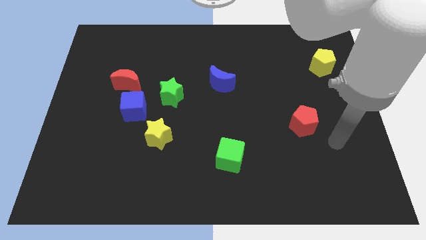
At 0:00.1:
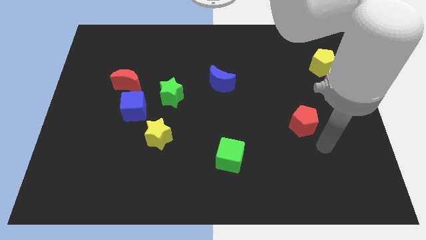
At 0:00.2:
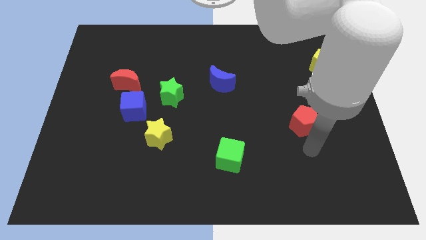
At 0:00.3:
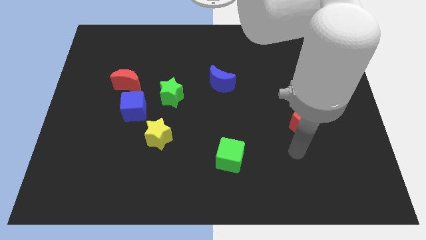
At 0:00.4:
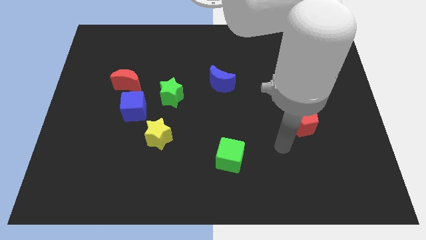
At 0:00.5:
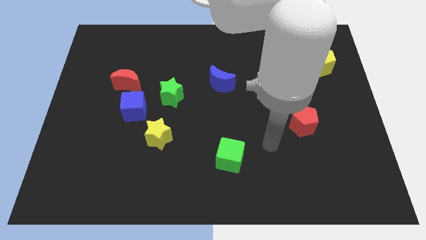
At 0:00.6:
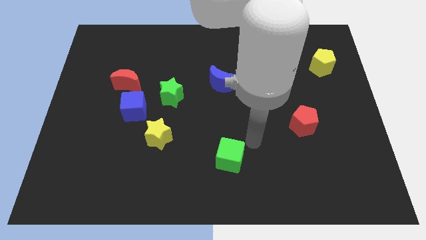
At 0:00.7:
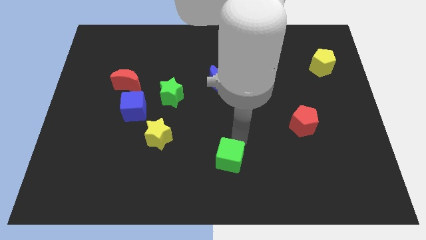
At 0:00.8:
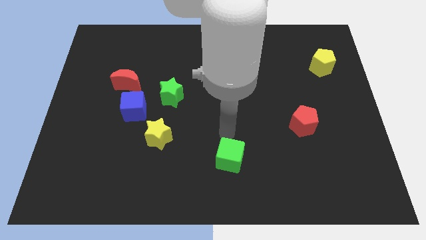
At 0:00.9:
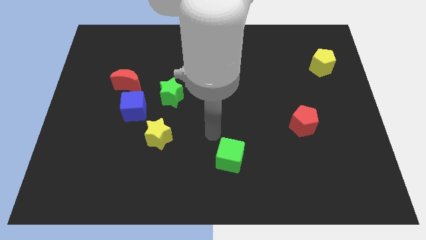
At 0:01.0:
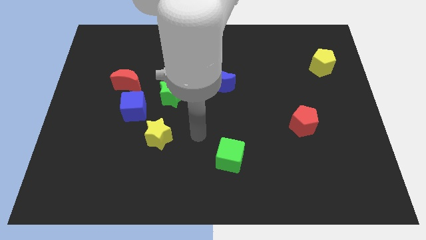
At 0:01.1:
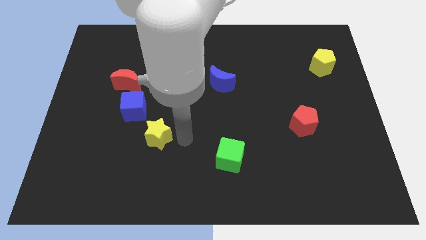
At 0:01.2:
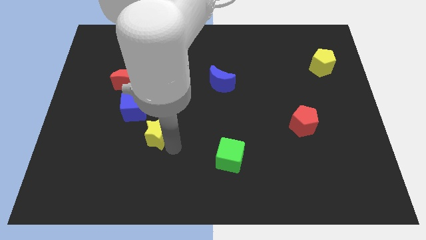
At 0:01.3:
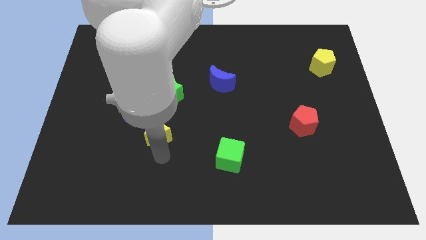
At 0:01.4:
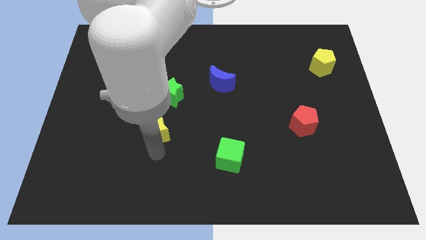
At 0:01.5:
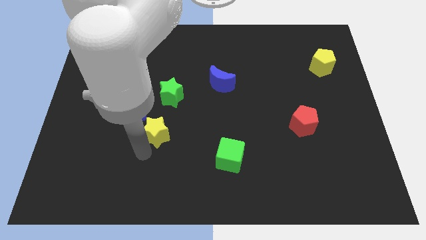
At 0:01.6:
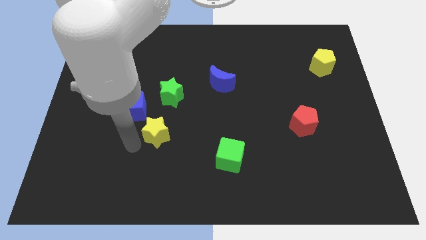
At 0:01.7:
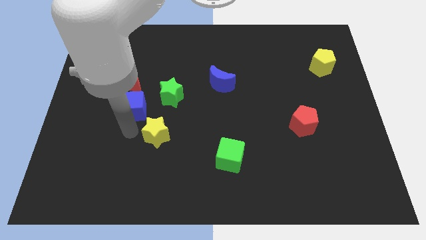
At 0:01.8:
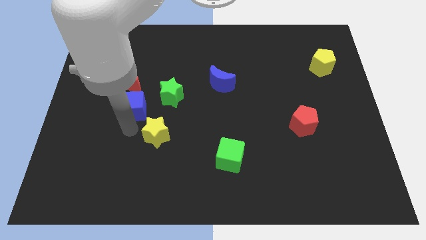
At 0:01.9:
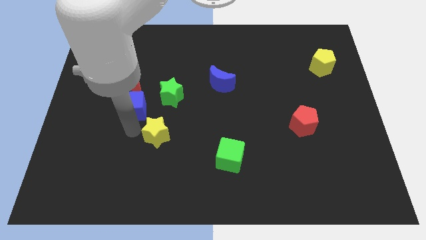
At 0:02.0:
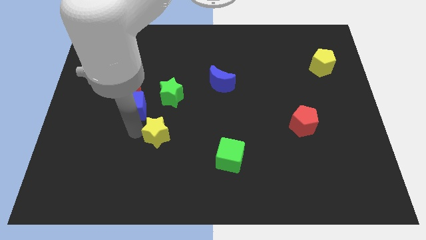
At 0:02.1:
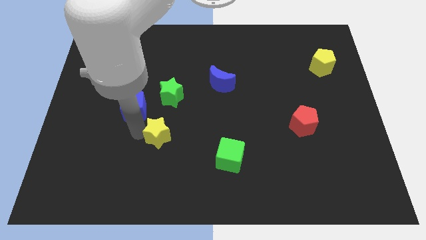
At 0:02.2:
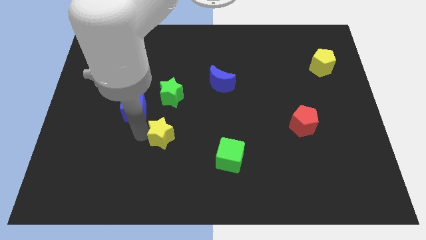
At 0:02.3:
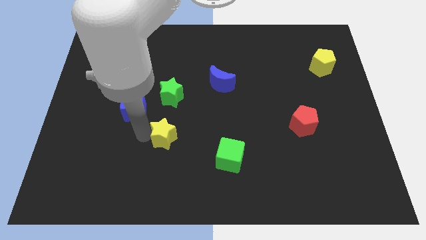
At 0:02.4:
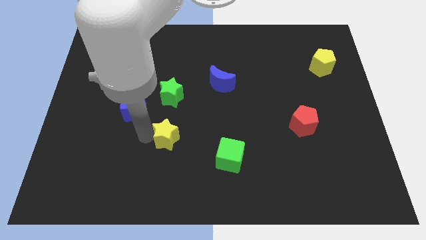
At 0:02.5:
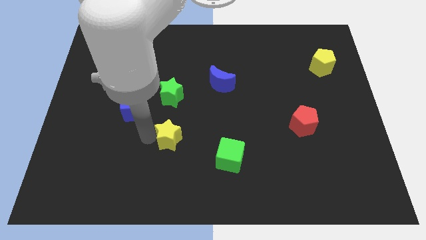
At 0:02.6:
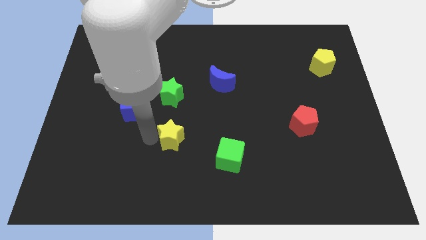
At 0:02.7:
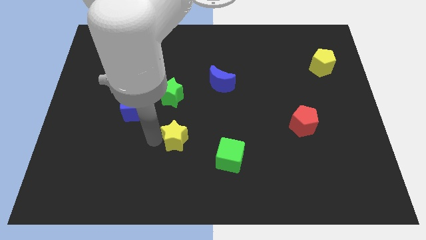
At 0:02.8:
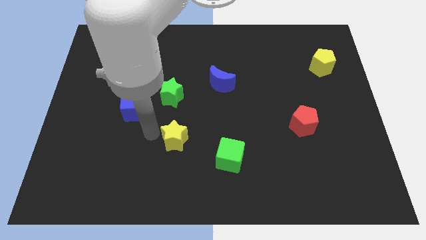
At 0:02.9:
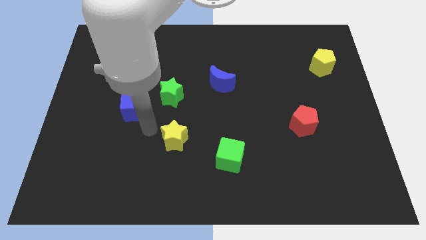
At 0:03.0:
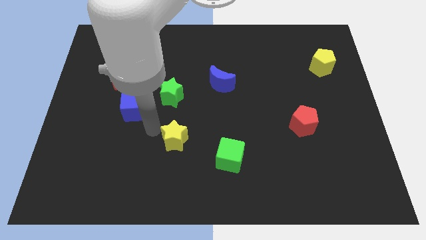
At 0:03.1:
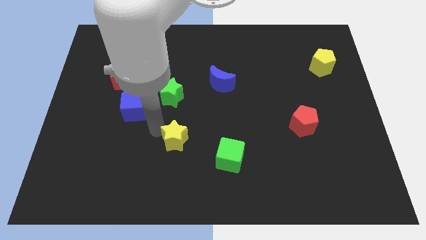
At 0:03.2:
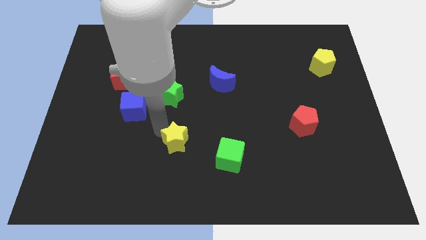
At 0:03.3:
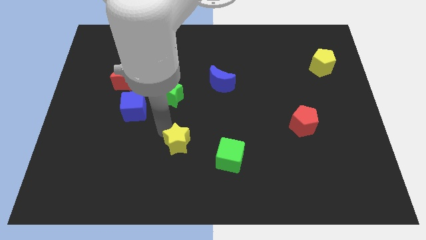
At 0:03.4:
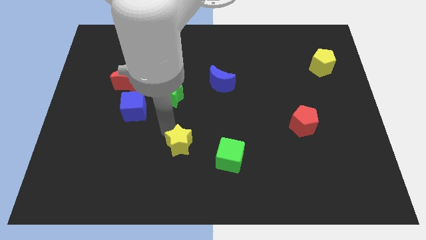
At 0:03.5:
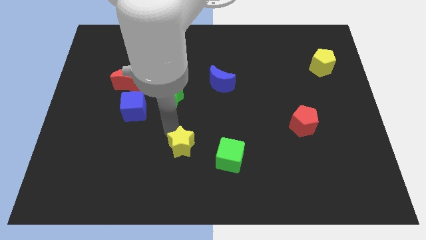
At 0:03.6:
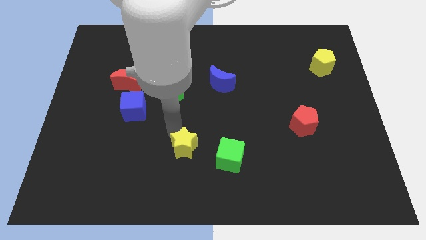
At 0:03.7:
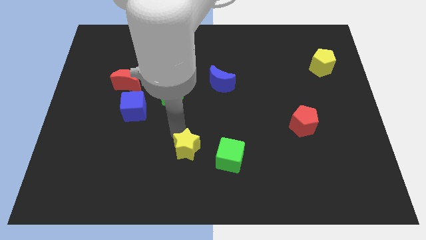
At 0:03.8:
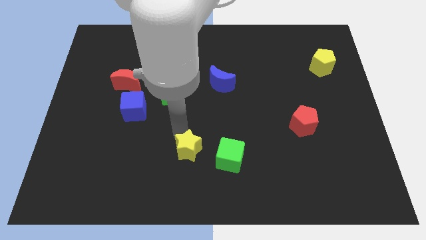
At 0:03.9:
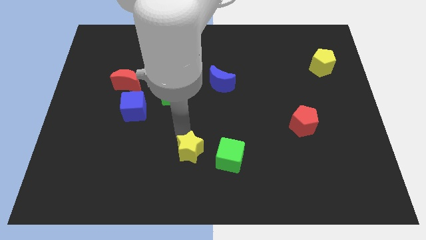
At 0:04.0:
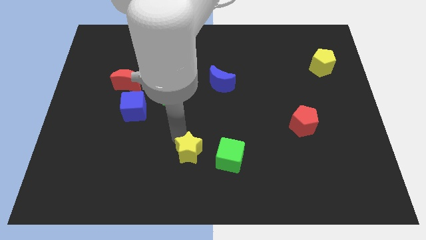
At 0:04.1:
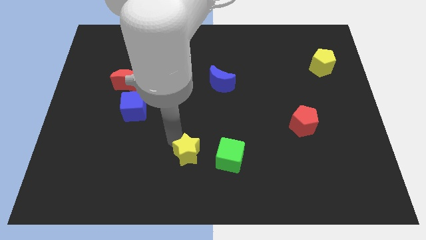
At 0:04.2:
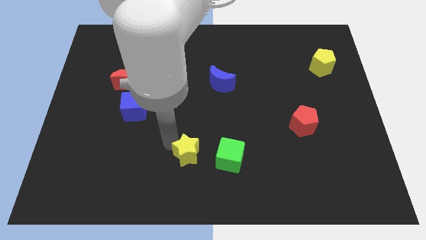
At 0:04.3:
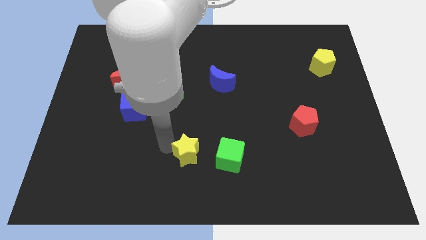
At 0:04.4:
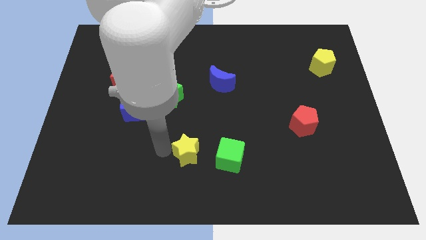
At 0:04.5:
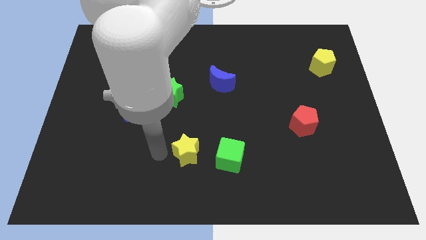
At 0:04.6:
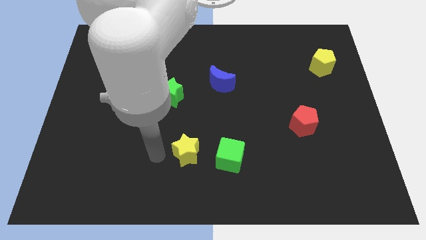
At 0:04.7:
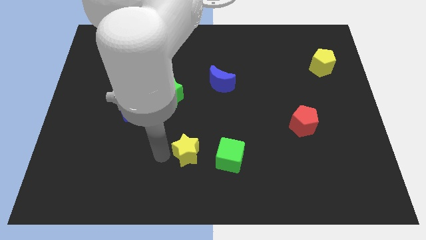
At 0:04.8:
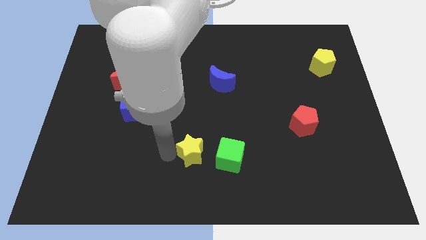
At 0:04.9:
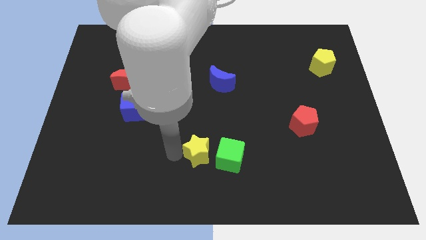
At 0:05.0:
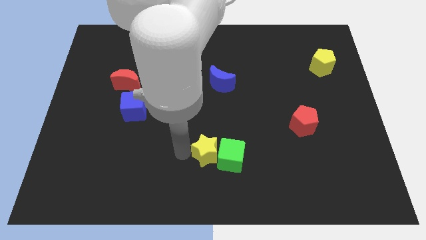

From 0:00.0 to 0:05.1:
put the yellow star close to the green cube

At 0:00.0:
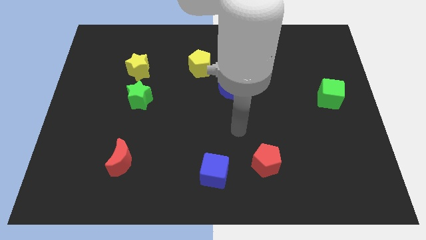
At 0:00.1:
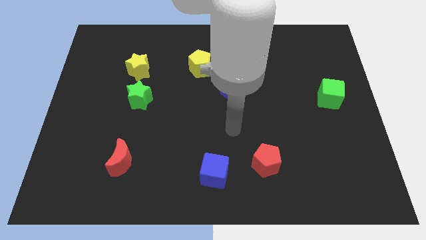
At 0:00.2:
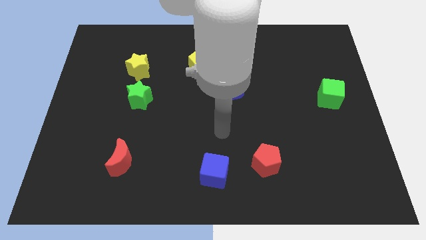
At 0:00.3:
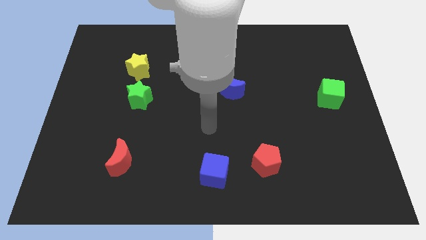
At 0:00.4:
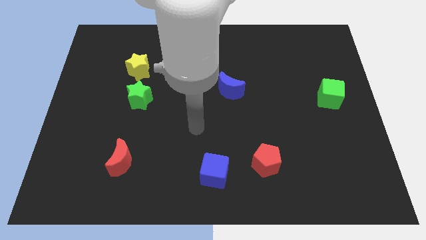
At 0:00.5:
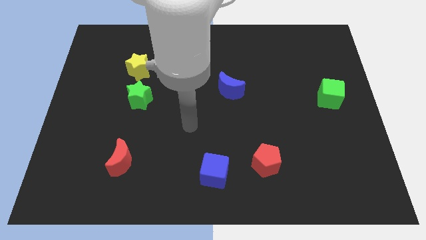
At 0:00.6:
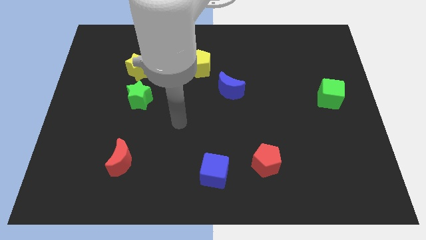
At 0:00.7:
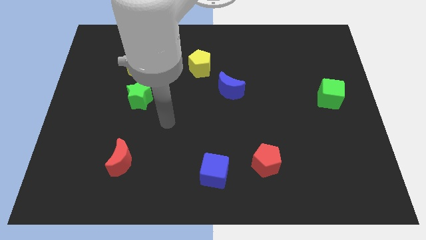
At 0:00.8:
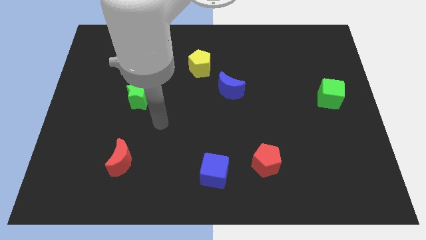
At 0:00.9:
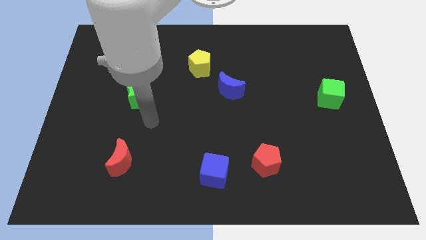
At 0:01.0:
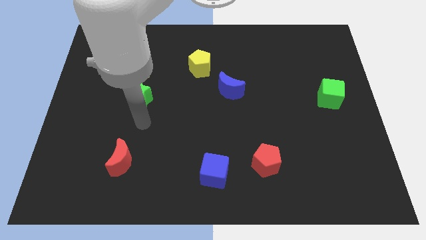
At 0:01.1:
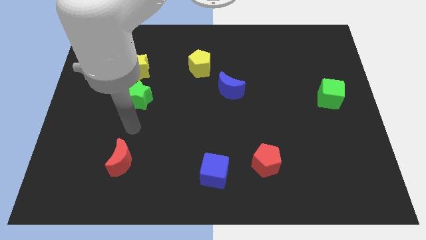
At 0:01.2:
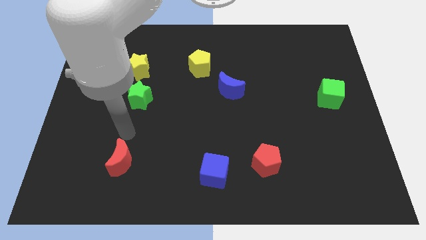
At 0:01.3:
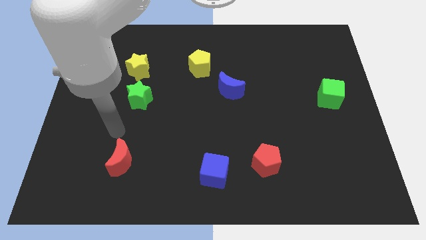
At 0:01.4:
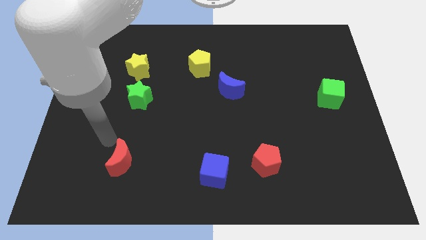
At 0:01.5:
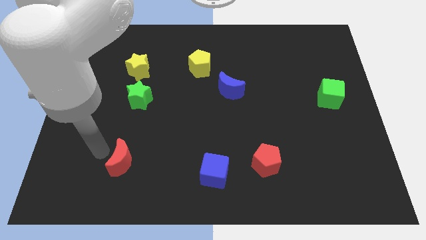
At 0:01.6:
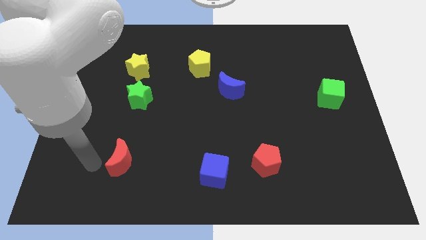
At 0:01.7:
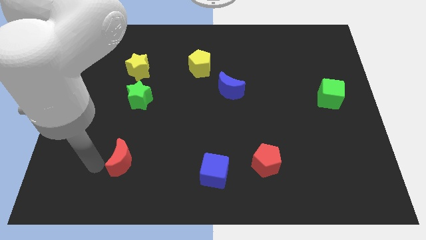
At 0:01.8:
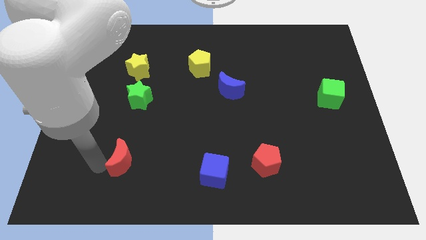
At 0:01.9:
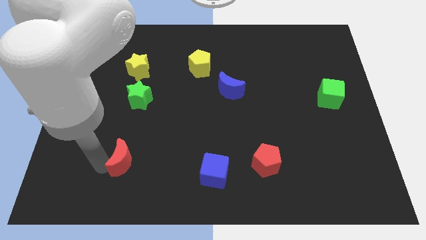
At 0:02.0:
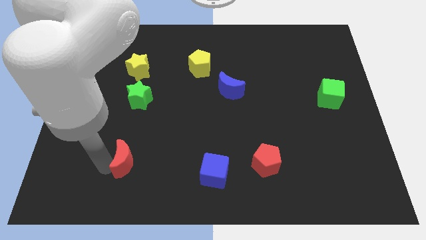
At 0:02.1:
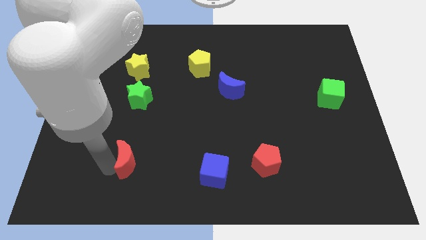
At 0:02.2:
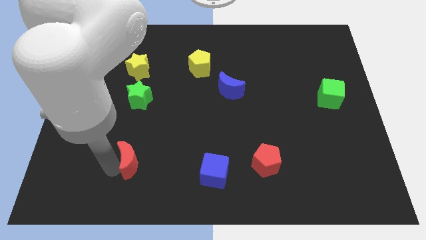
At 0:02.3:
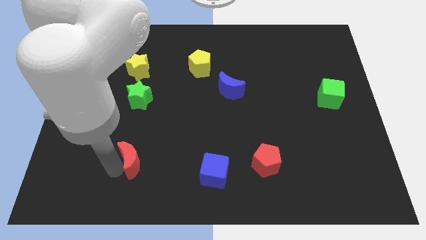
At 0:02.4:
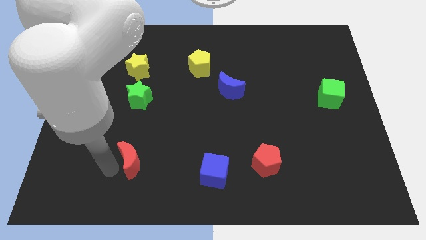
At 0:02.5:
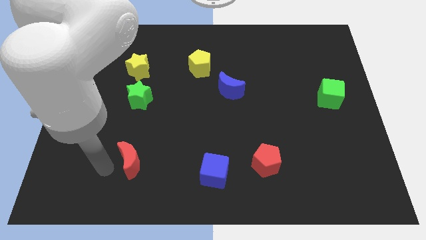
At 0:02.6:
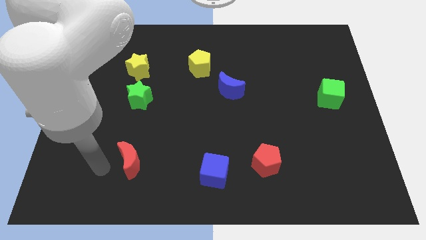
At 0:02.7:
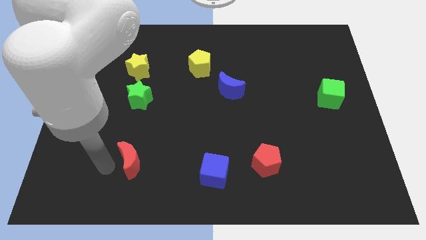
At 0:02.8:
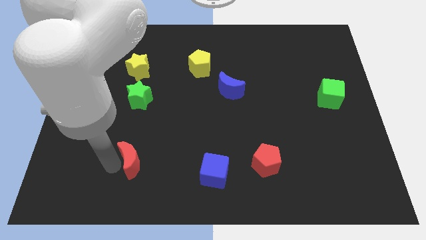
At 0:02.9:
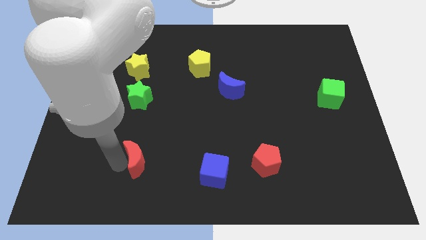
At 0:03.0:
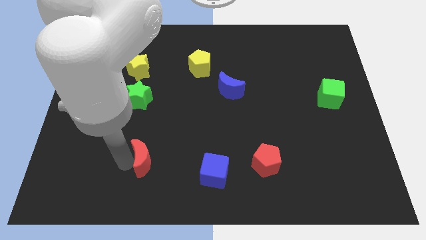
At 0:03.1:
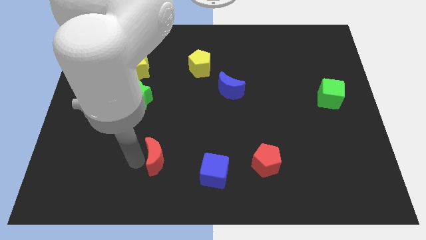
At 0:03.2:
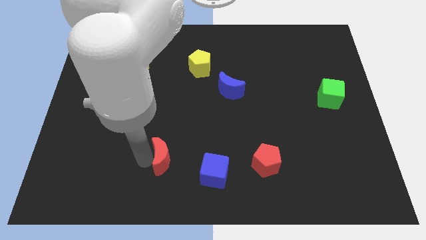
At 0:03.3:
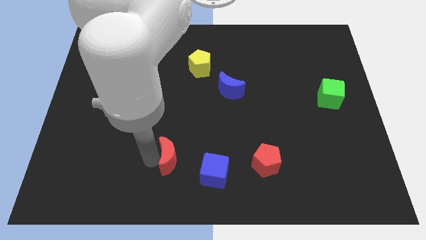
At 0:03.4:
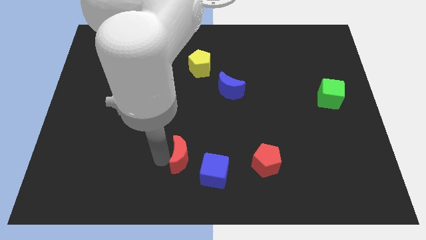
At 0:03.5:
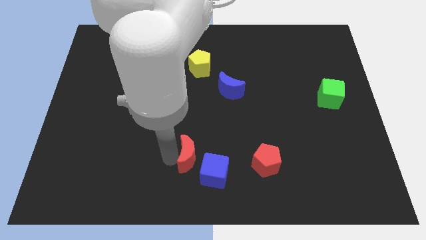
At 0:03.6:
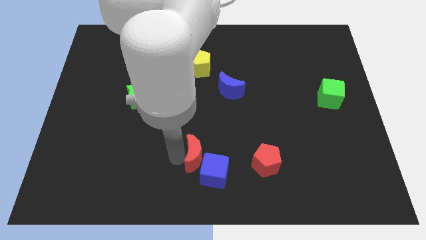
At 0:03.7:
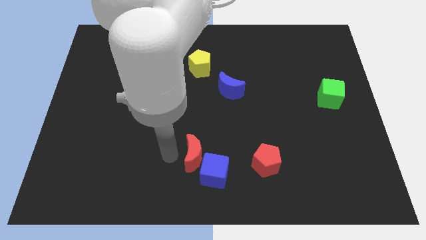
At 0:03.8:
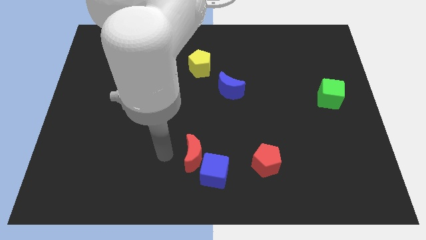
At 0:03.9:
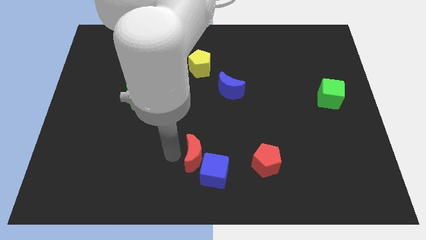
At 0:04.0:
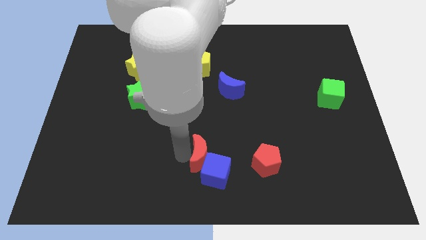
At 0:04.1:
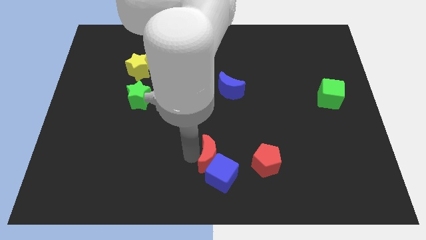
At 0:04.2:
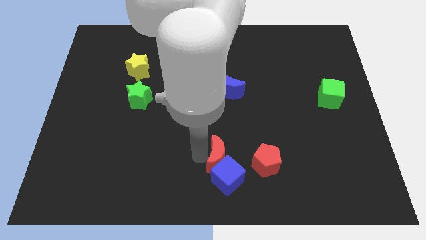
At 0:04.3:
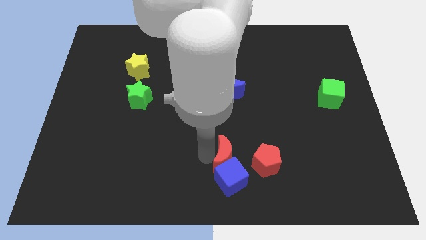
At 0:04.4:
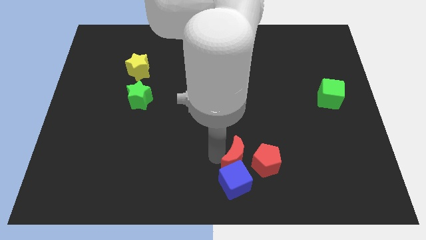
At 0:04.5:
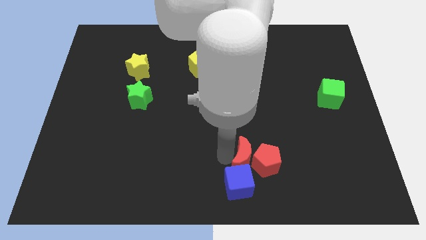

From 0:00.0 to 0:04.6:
move the red moon next to the red pentagon
